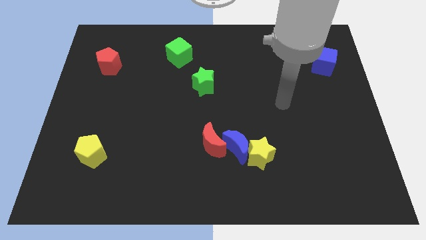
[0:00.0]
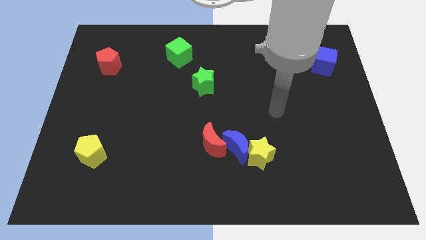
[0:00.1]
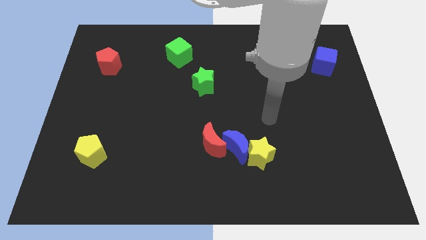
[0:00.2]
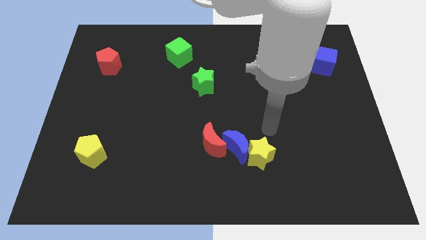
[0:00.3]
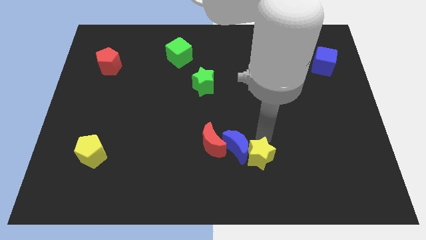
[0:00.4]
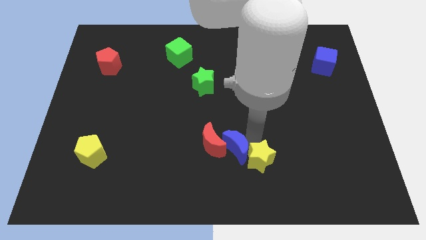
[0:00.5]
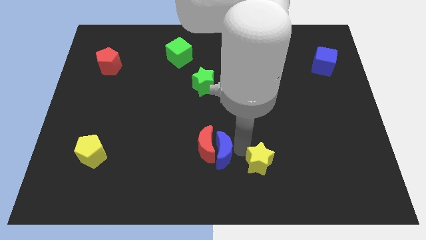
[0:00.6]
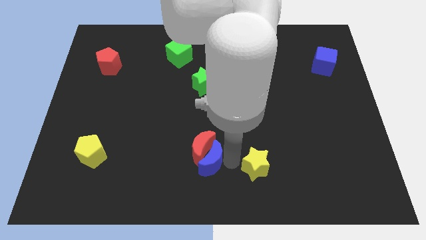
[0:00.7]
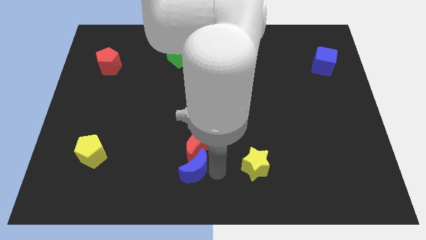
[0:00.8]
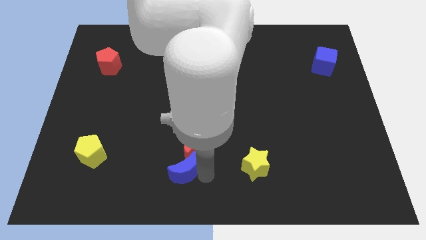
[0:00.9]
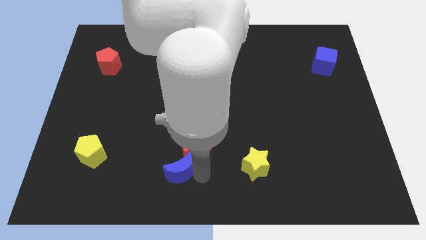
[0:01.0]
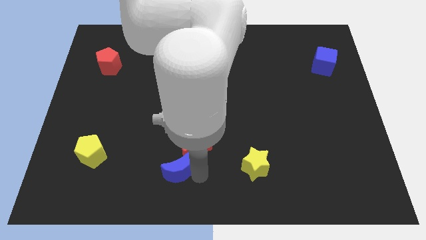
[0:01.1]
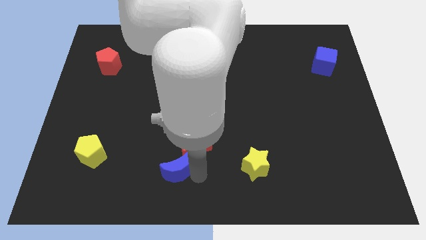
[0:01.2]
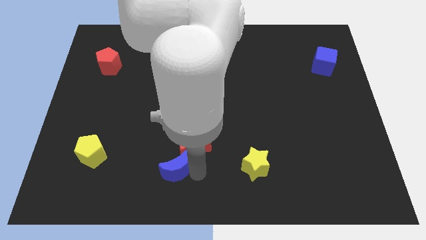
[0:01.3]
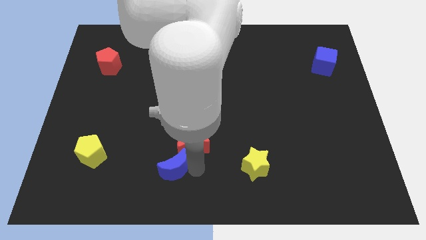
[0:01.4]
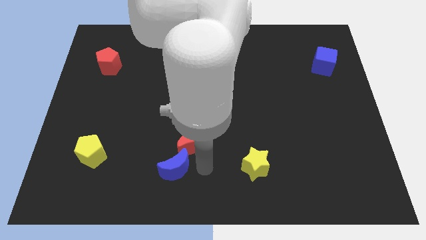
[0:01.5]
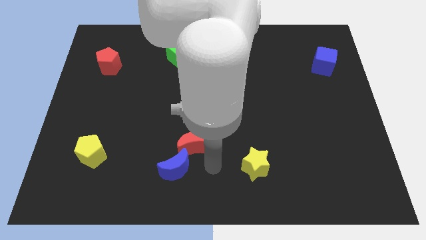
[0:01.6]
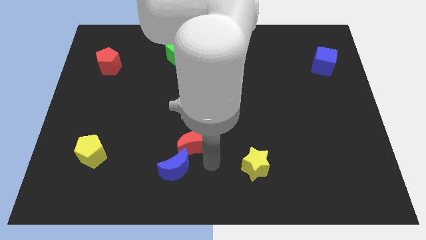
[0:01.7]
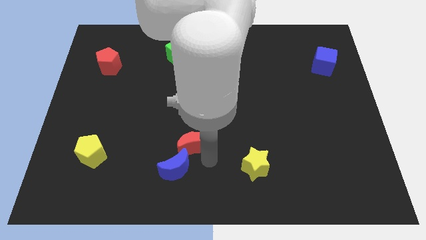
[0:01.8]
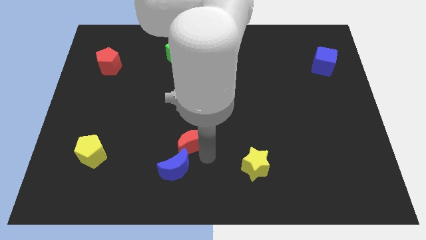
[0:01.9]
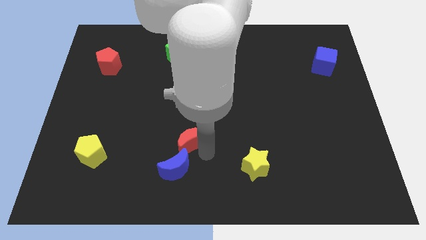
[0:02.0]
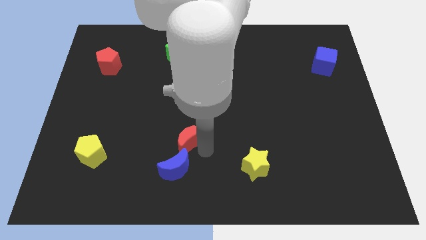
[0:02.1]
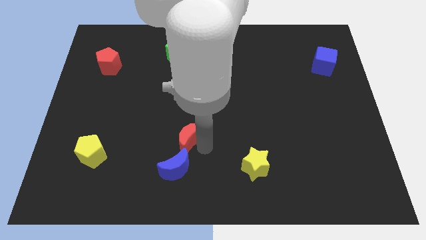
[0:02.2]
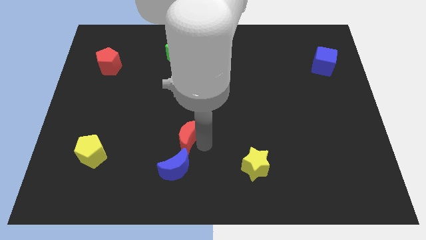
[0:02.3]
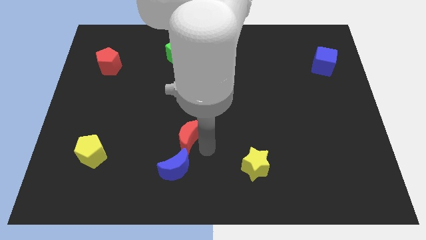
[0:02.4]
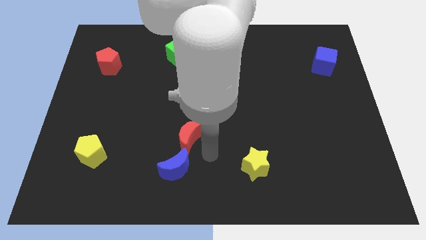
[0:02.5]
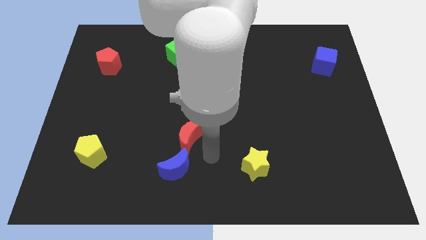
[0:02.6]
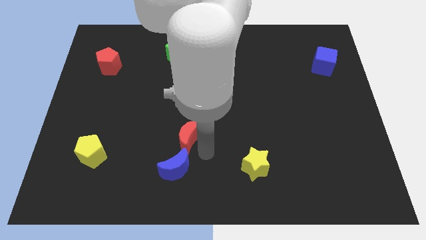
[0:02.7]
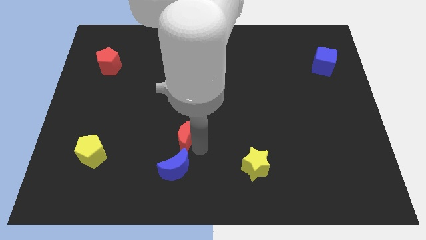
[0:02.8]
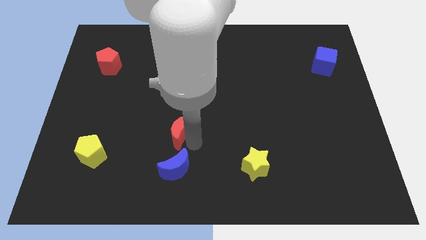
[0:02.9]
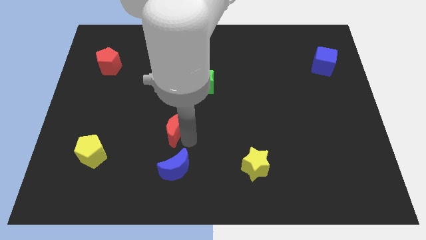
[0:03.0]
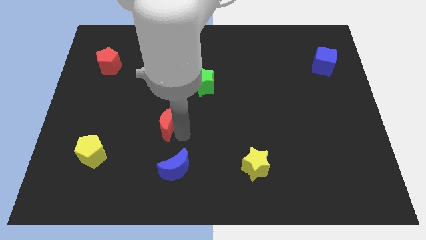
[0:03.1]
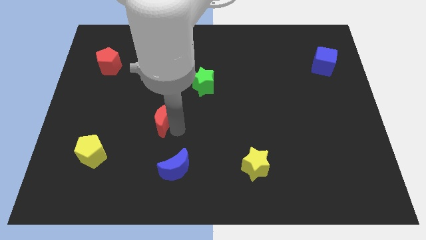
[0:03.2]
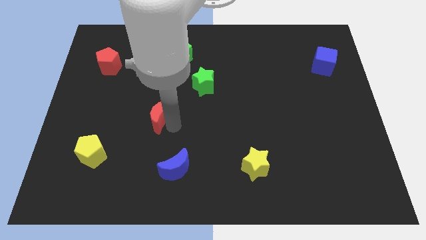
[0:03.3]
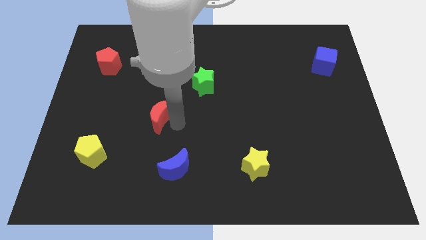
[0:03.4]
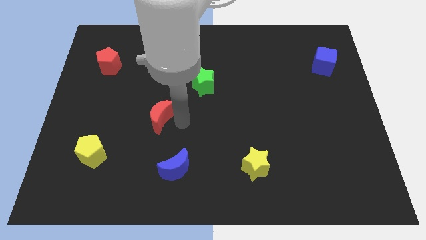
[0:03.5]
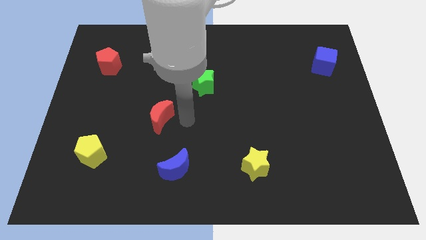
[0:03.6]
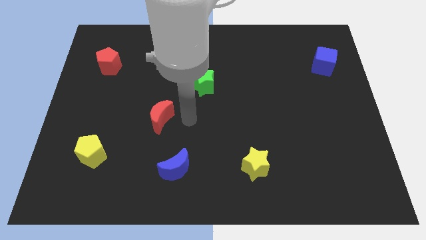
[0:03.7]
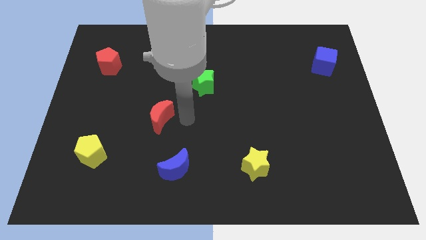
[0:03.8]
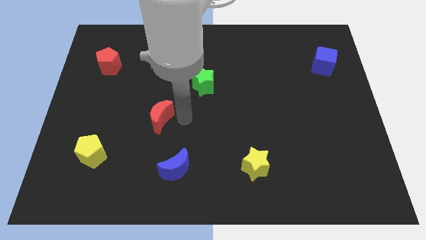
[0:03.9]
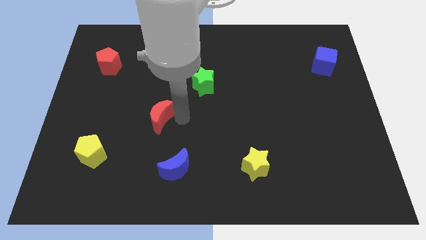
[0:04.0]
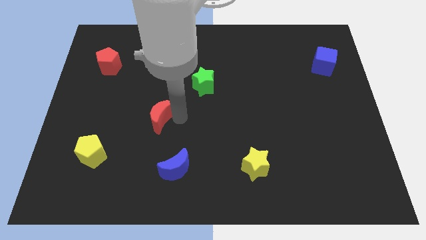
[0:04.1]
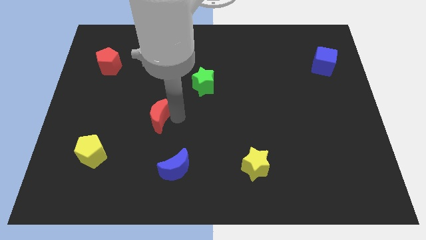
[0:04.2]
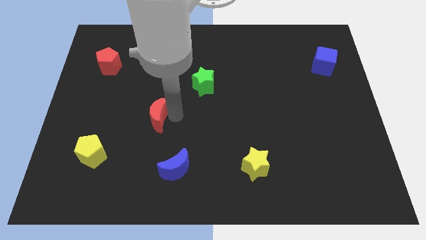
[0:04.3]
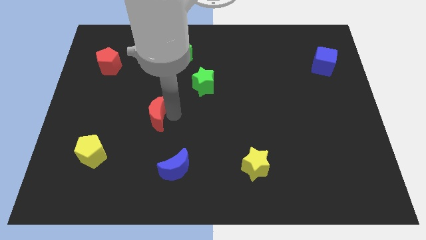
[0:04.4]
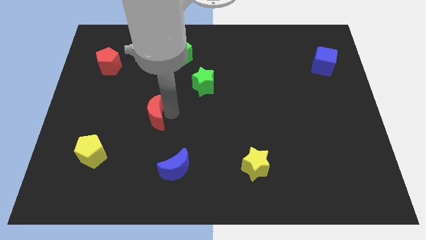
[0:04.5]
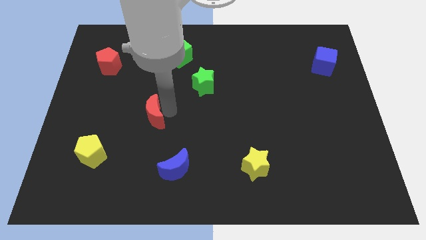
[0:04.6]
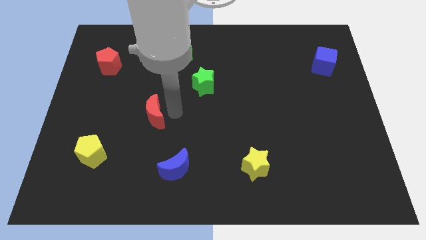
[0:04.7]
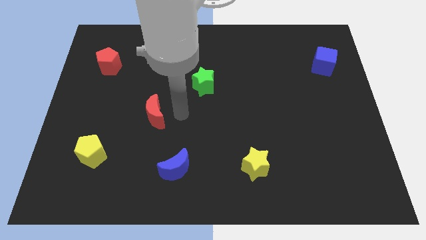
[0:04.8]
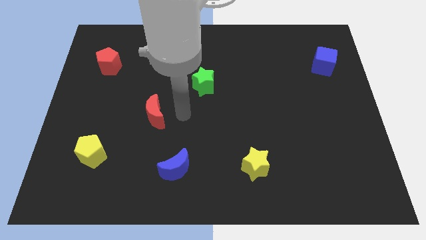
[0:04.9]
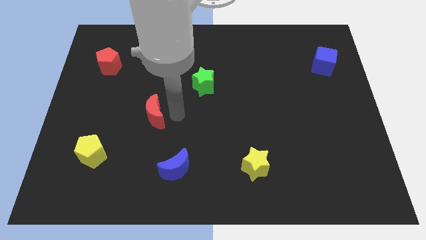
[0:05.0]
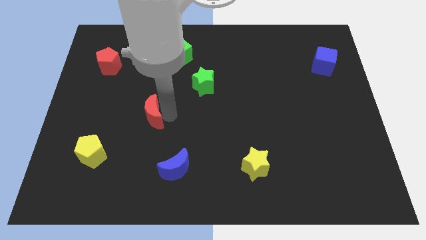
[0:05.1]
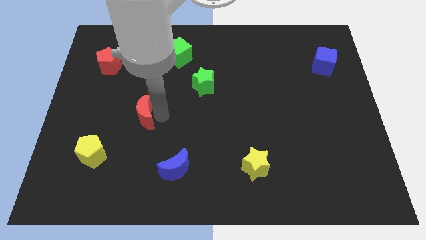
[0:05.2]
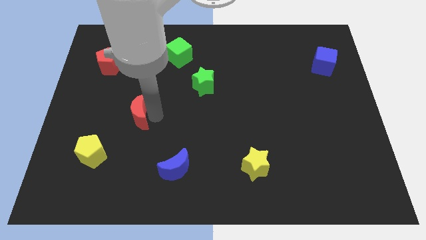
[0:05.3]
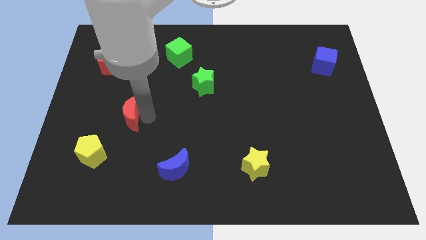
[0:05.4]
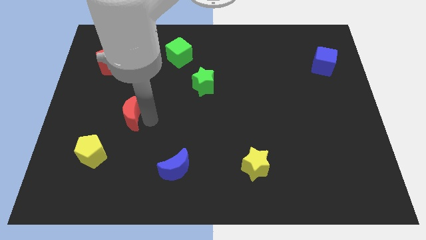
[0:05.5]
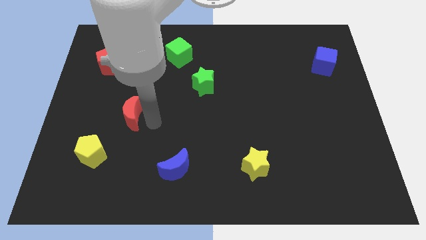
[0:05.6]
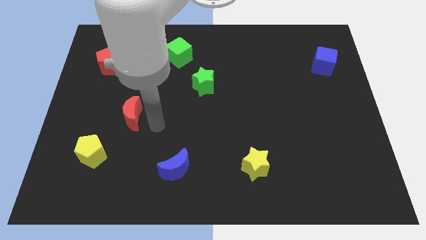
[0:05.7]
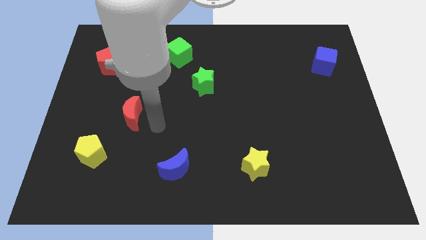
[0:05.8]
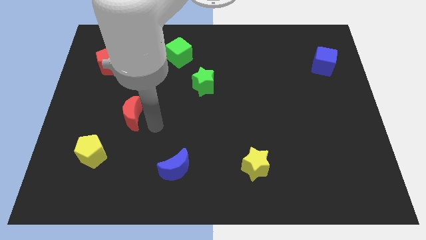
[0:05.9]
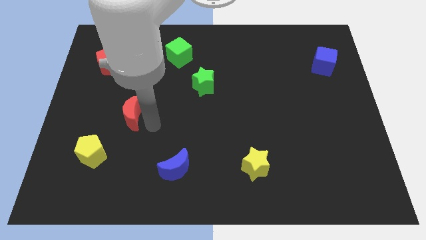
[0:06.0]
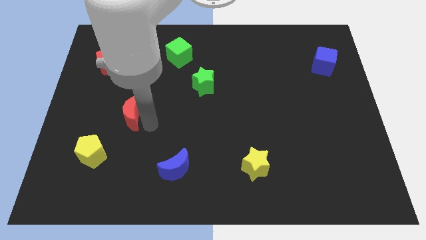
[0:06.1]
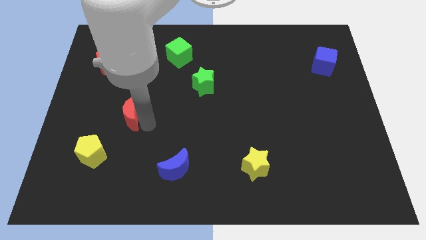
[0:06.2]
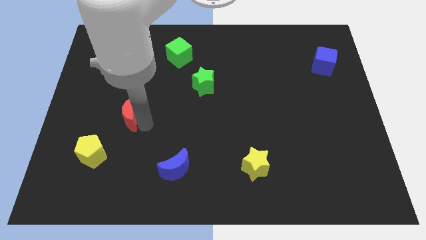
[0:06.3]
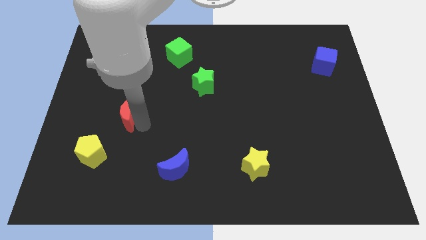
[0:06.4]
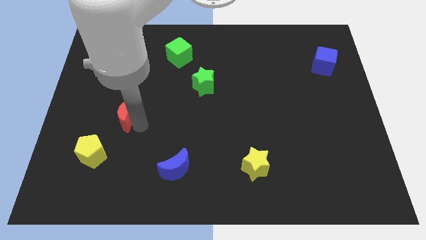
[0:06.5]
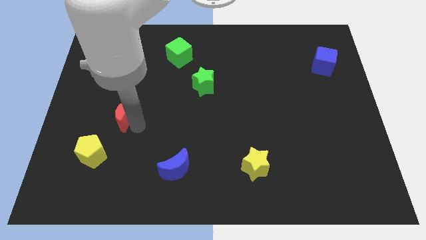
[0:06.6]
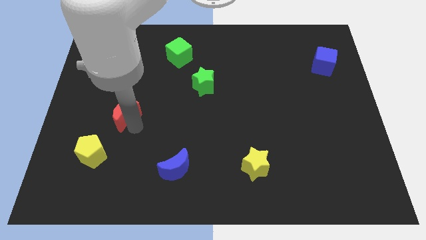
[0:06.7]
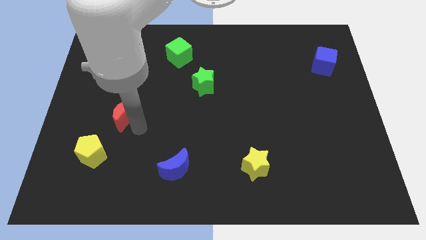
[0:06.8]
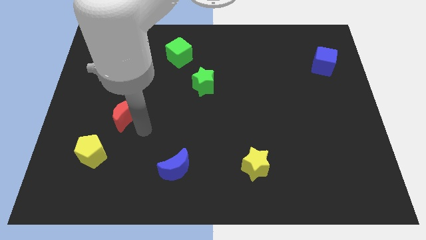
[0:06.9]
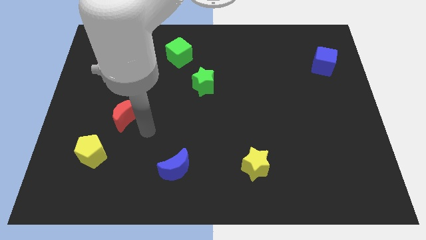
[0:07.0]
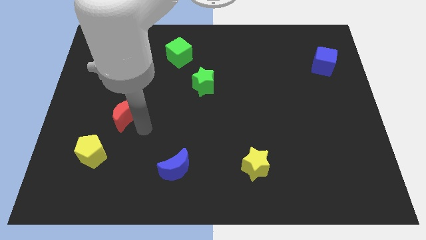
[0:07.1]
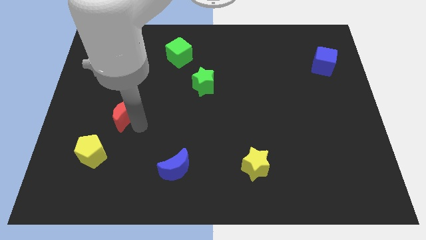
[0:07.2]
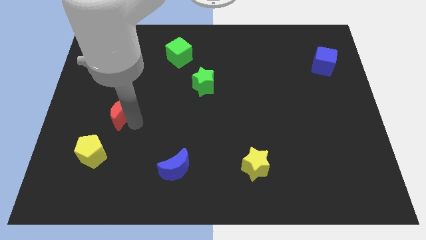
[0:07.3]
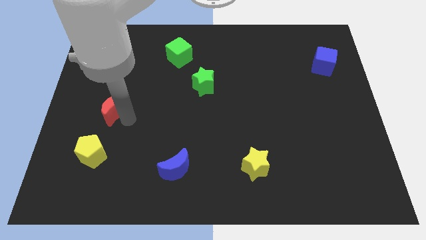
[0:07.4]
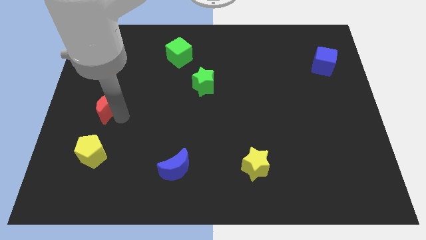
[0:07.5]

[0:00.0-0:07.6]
slide the red moon to the bottom of the red pentagon
